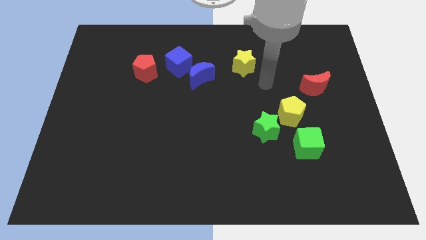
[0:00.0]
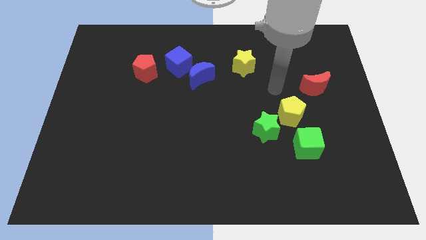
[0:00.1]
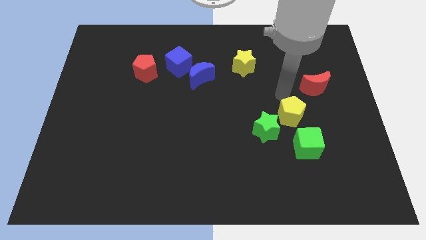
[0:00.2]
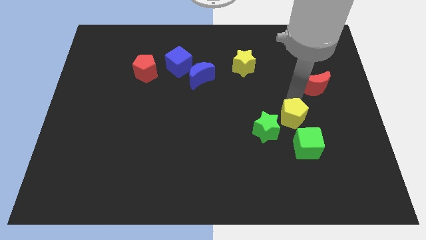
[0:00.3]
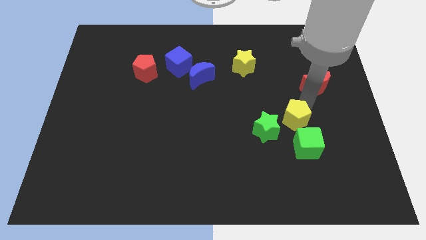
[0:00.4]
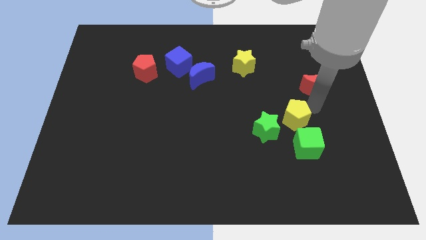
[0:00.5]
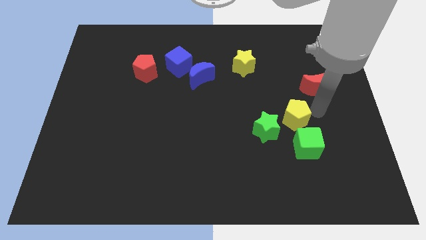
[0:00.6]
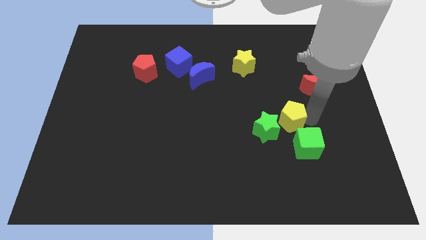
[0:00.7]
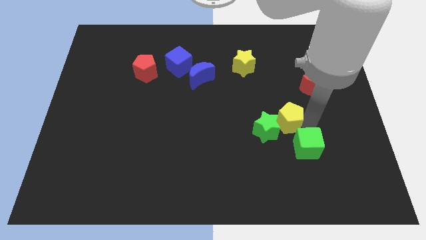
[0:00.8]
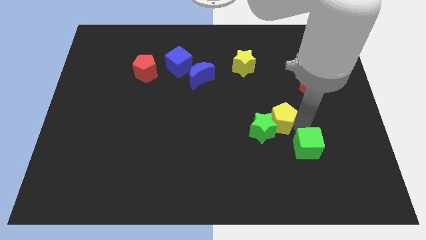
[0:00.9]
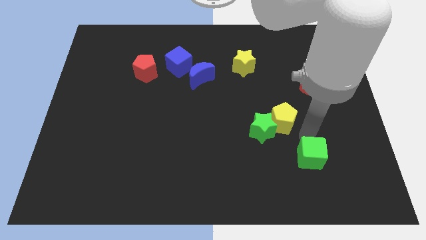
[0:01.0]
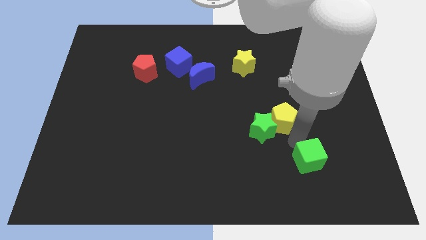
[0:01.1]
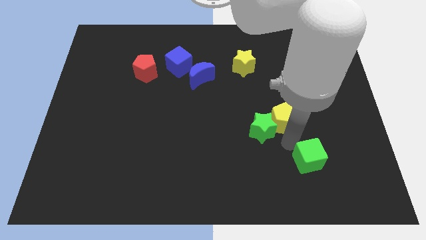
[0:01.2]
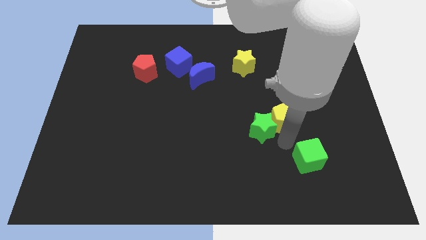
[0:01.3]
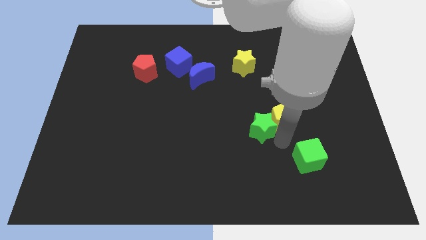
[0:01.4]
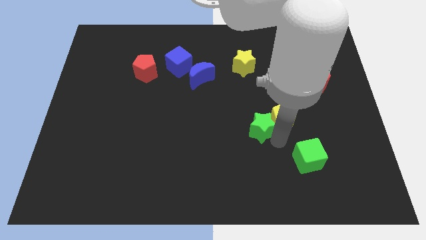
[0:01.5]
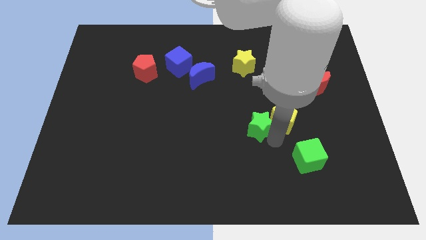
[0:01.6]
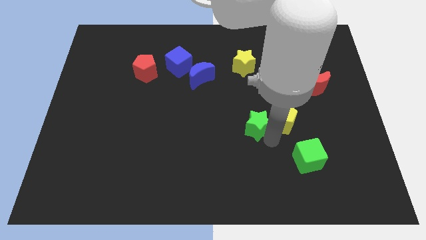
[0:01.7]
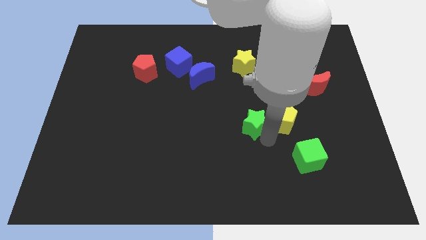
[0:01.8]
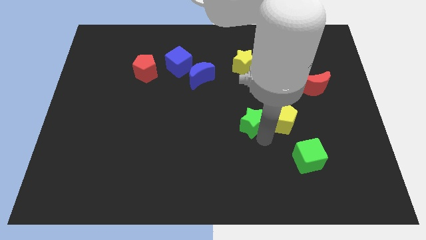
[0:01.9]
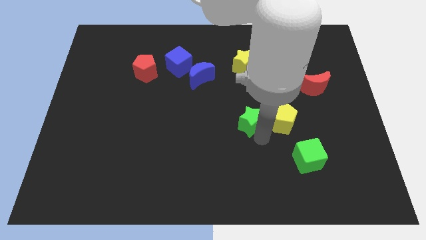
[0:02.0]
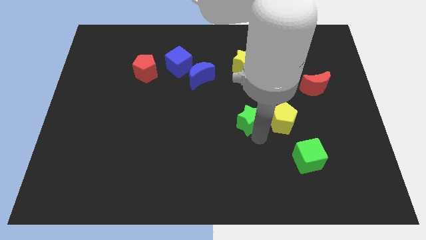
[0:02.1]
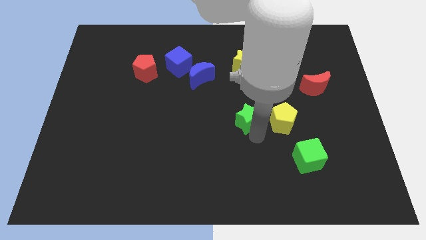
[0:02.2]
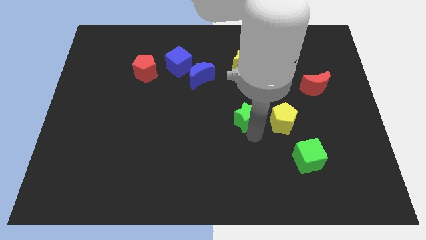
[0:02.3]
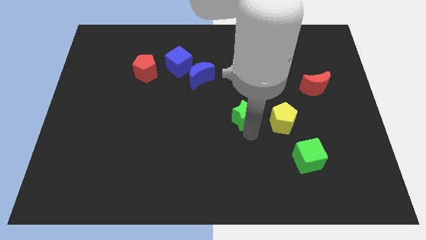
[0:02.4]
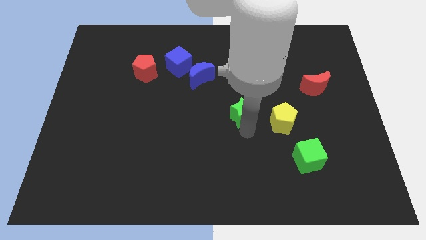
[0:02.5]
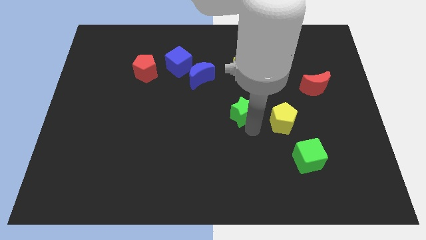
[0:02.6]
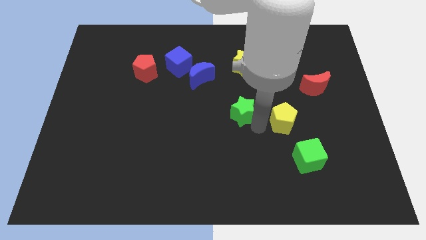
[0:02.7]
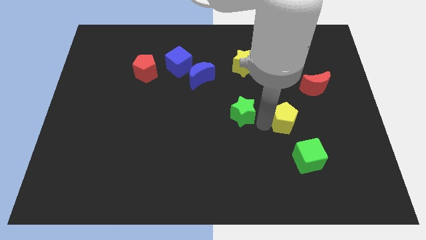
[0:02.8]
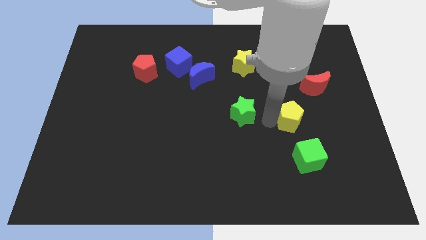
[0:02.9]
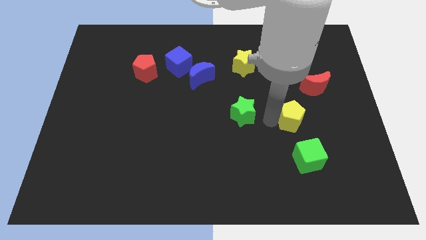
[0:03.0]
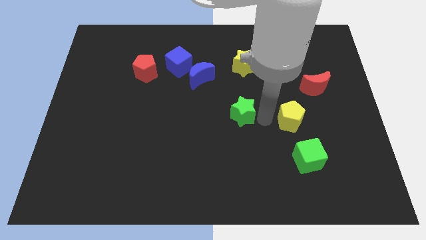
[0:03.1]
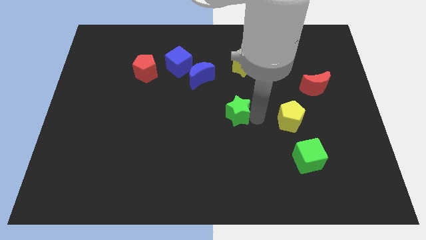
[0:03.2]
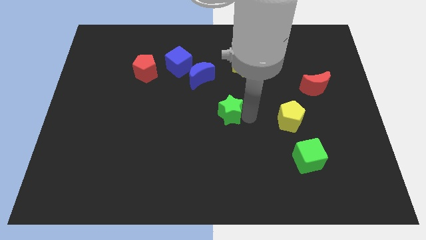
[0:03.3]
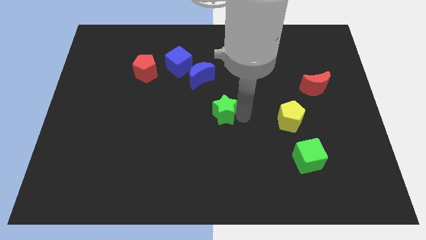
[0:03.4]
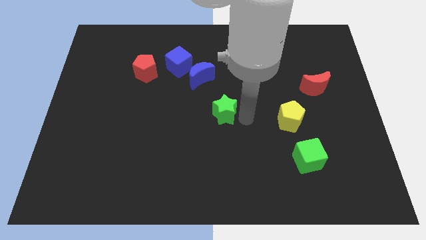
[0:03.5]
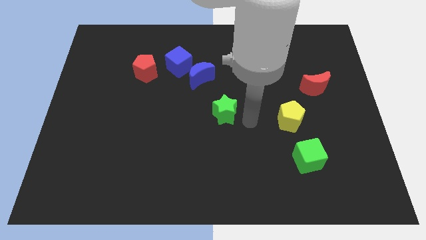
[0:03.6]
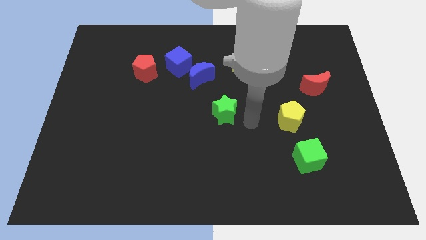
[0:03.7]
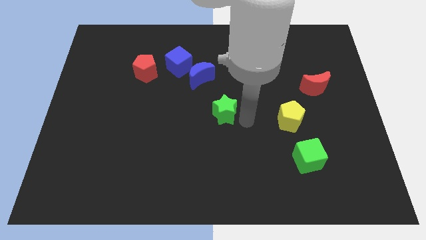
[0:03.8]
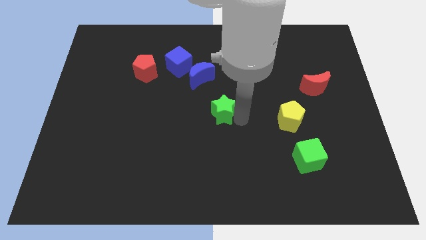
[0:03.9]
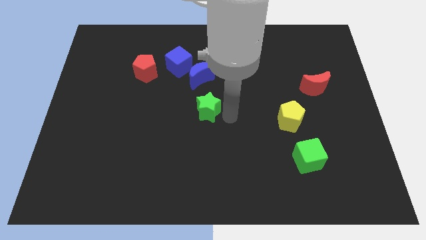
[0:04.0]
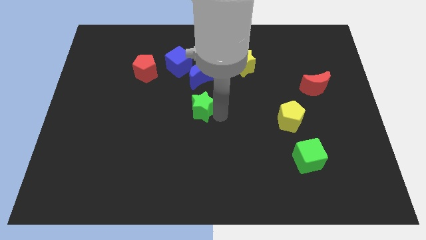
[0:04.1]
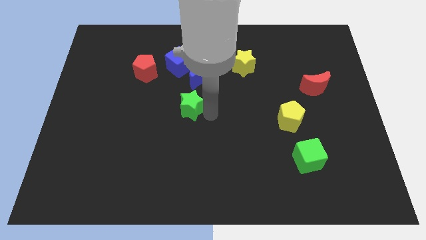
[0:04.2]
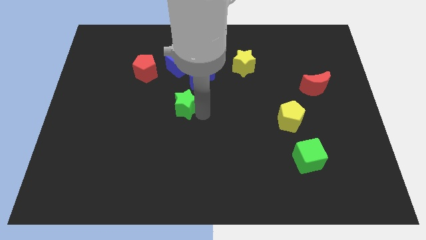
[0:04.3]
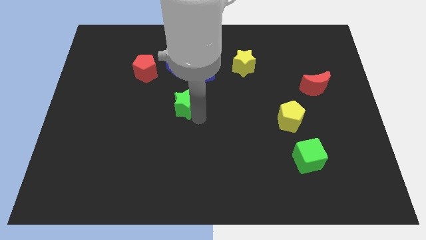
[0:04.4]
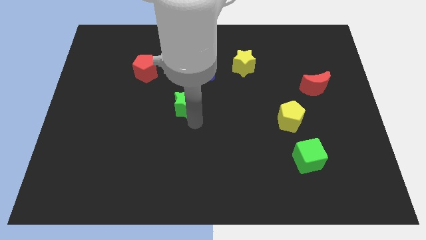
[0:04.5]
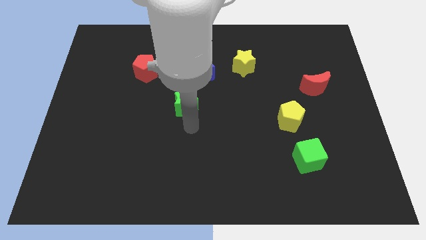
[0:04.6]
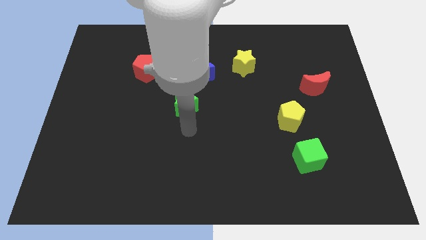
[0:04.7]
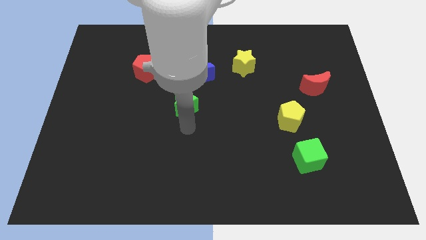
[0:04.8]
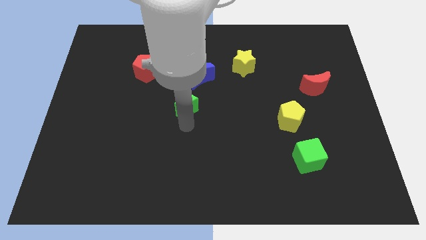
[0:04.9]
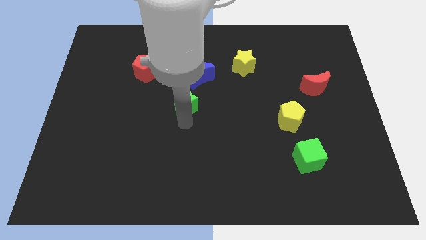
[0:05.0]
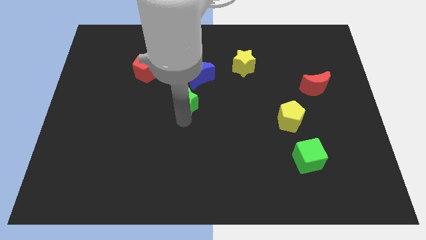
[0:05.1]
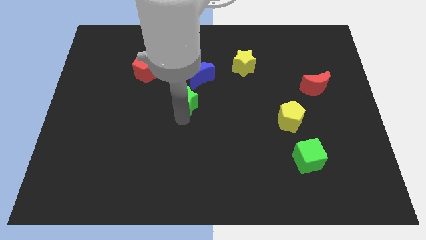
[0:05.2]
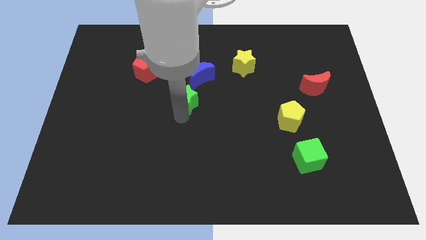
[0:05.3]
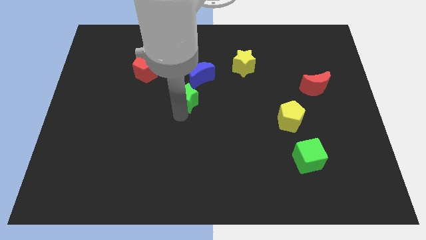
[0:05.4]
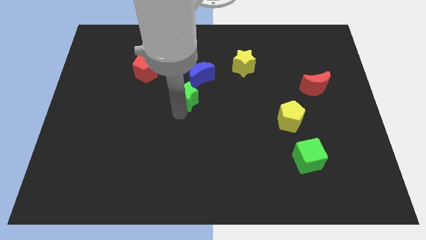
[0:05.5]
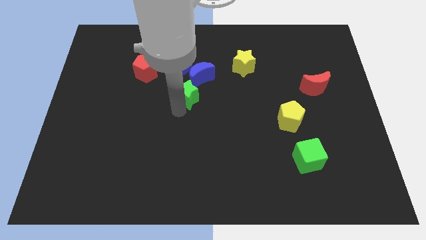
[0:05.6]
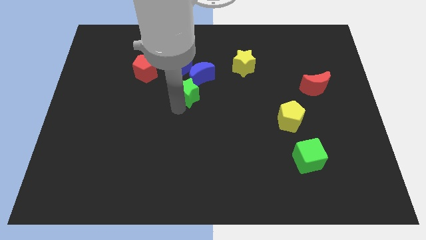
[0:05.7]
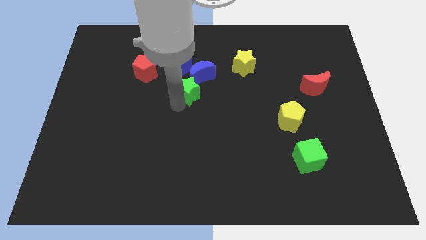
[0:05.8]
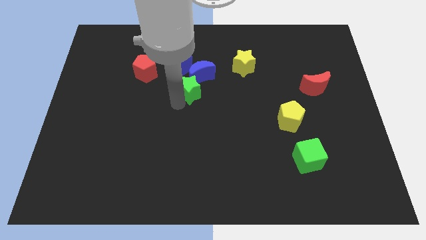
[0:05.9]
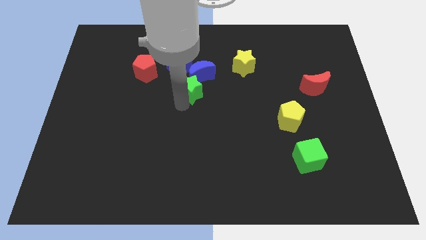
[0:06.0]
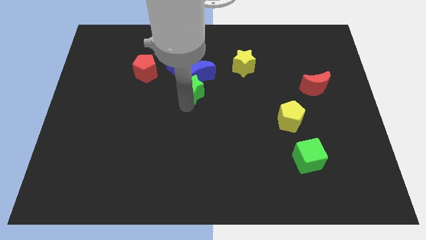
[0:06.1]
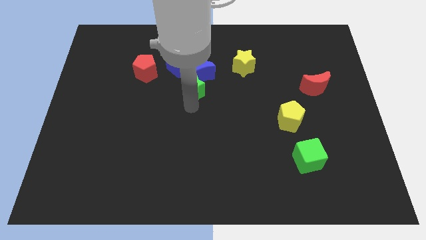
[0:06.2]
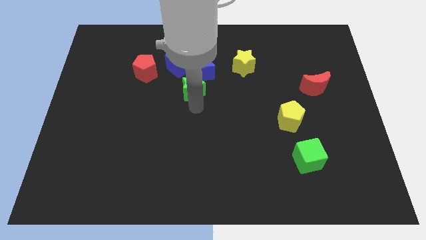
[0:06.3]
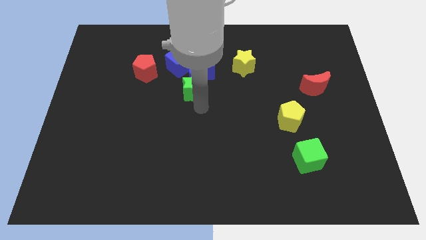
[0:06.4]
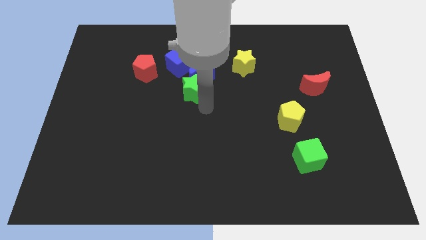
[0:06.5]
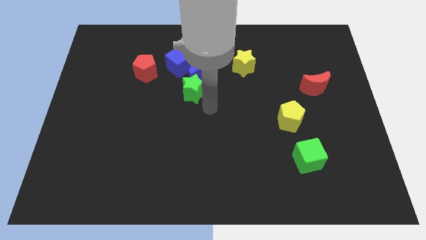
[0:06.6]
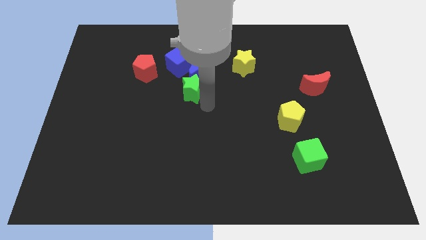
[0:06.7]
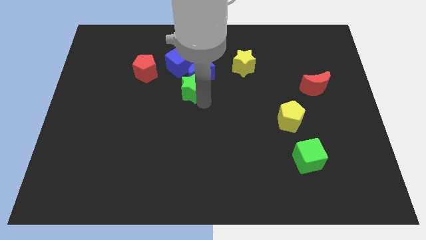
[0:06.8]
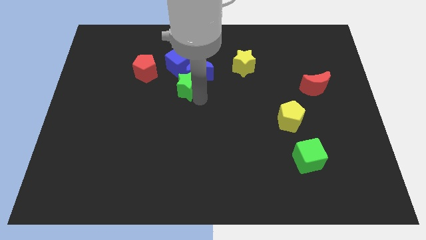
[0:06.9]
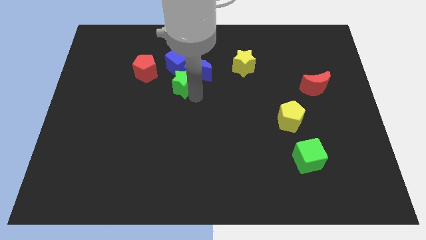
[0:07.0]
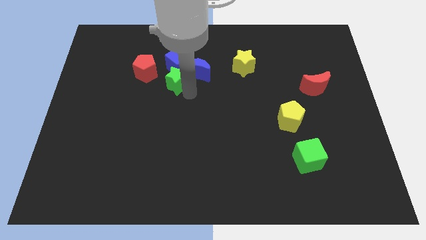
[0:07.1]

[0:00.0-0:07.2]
move the green star to the blue cube

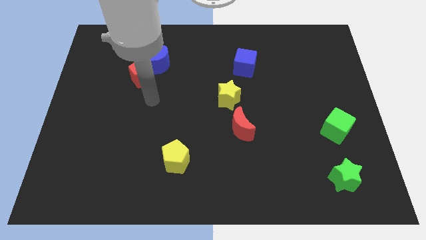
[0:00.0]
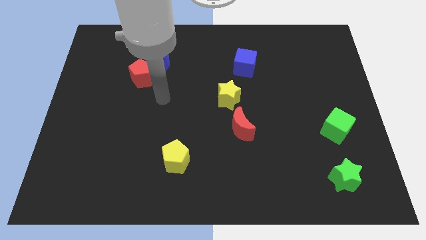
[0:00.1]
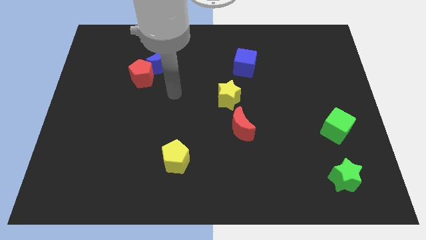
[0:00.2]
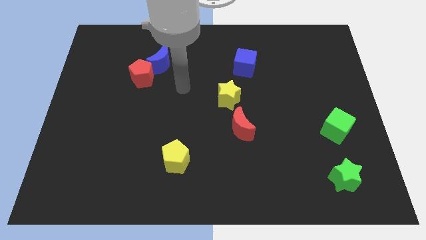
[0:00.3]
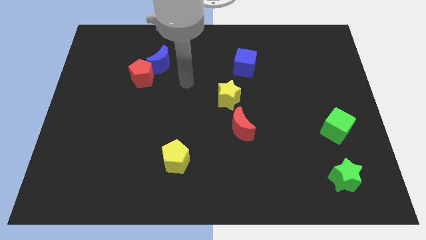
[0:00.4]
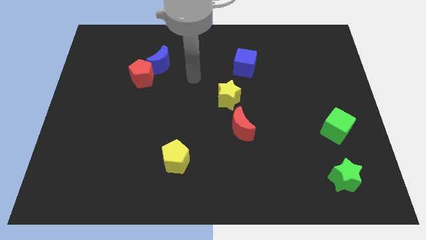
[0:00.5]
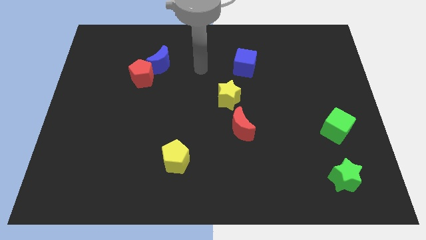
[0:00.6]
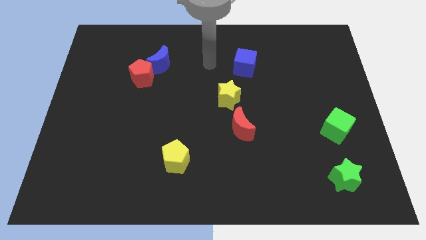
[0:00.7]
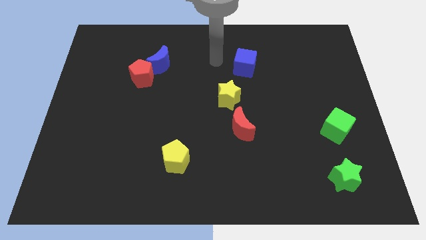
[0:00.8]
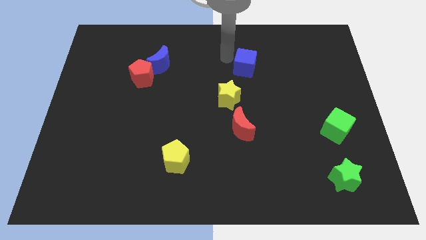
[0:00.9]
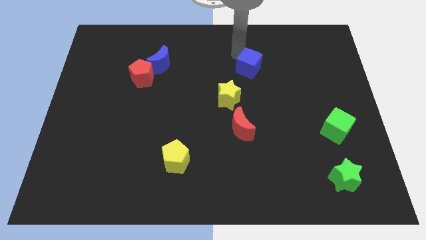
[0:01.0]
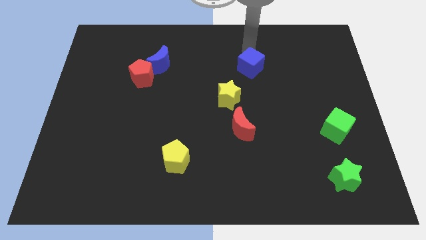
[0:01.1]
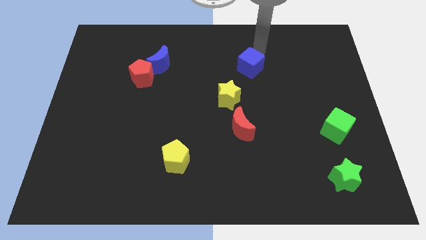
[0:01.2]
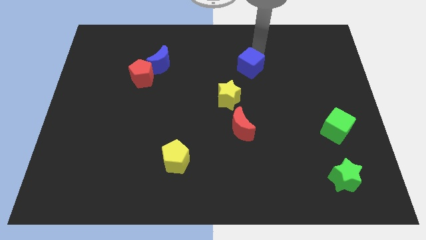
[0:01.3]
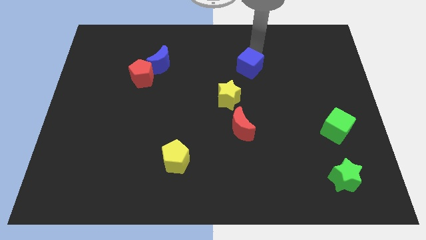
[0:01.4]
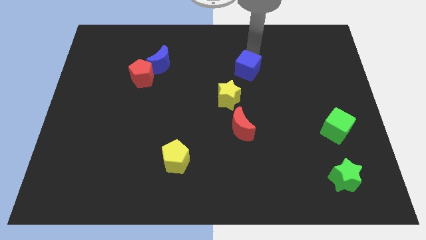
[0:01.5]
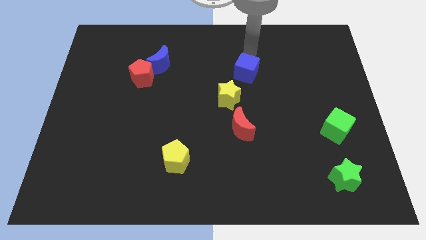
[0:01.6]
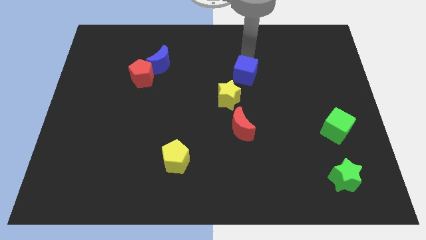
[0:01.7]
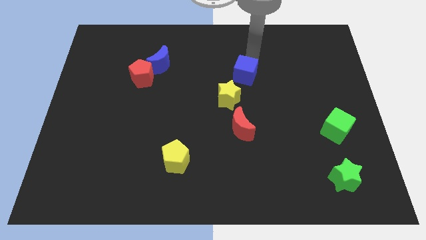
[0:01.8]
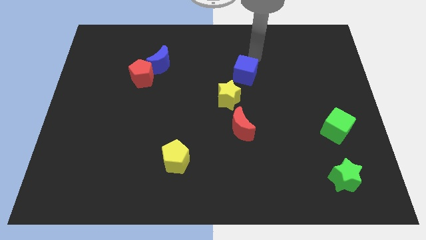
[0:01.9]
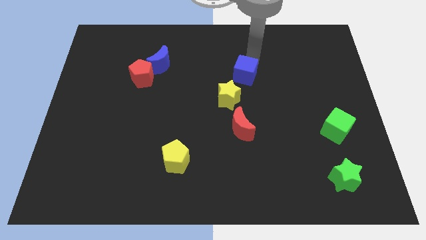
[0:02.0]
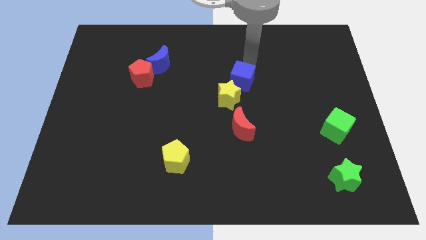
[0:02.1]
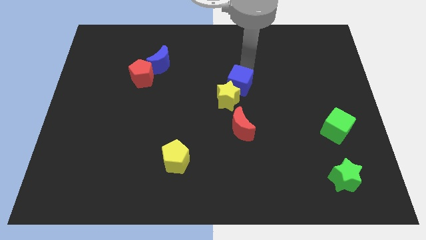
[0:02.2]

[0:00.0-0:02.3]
put the blue cube next to the yellow star
